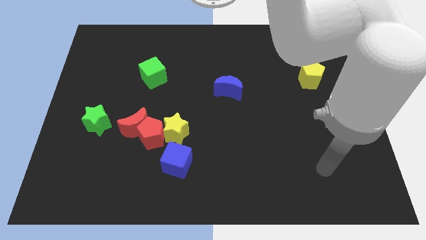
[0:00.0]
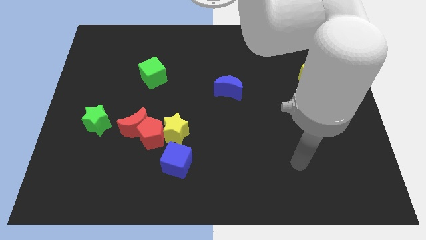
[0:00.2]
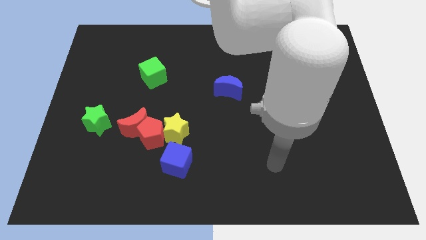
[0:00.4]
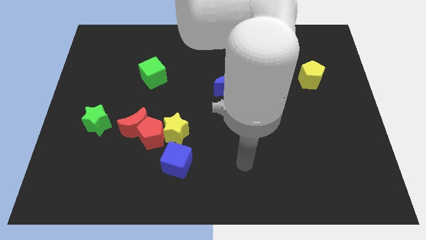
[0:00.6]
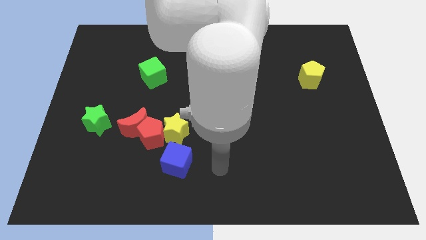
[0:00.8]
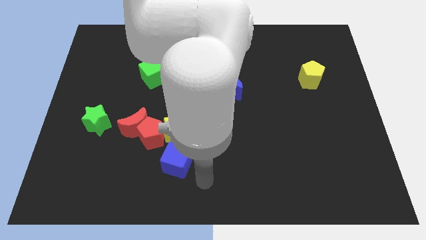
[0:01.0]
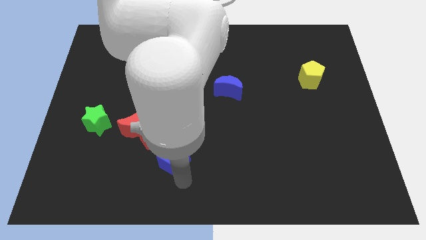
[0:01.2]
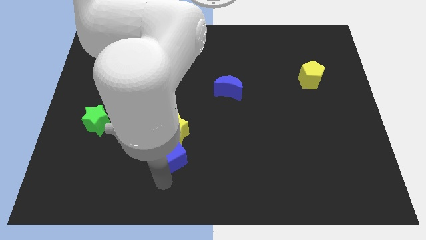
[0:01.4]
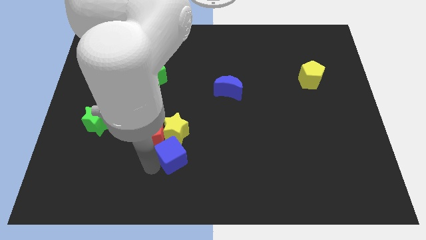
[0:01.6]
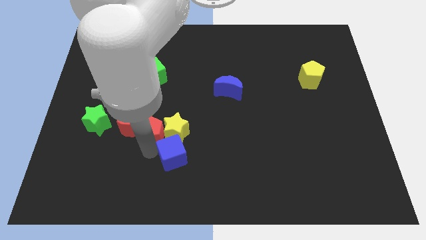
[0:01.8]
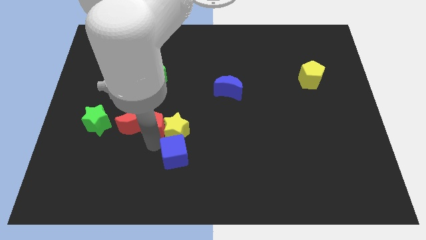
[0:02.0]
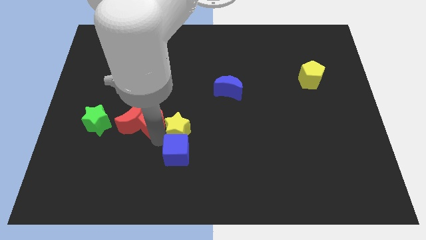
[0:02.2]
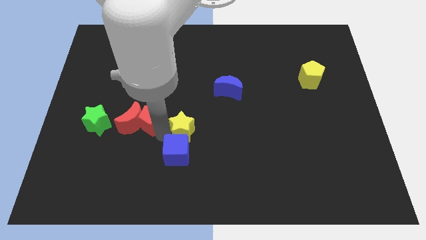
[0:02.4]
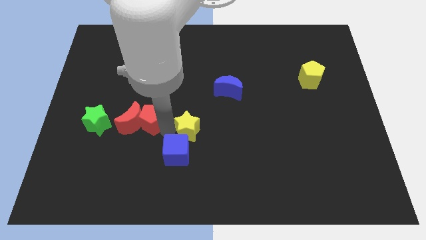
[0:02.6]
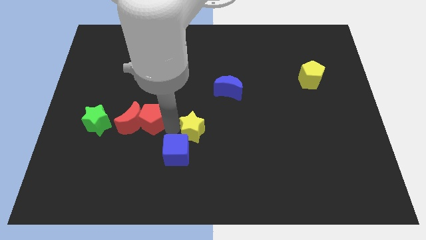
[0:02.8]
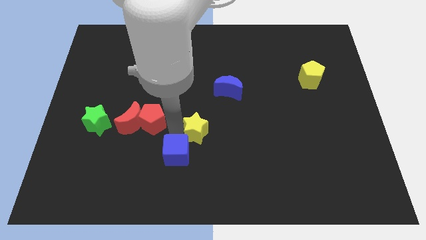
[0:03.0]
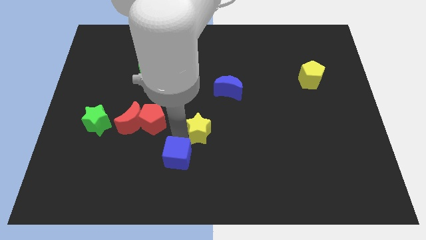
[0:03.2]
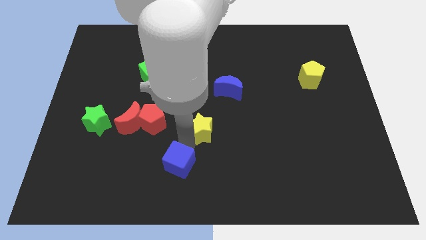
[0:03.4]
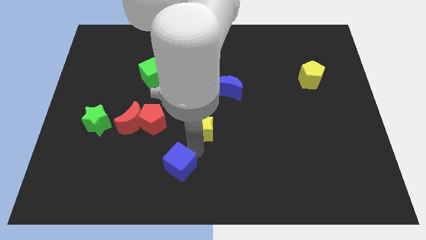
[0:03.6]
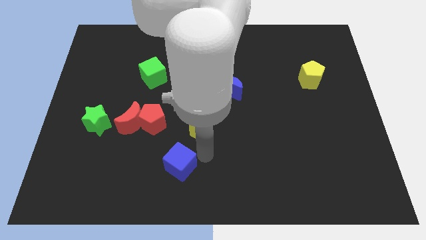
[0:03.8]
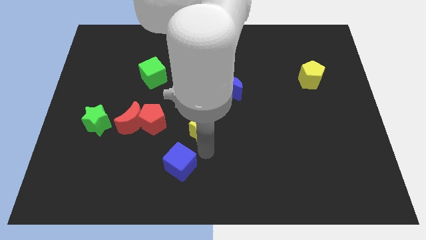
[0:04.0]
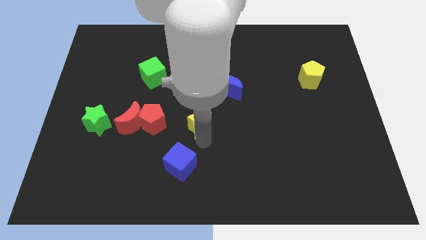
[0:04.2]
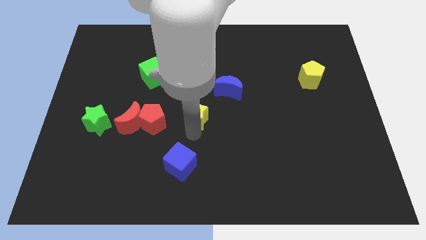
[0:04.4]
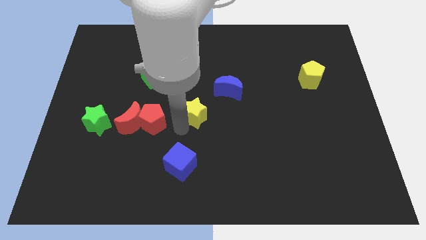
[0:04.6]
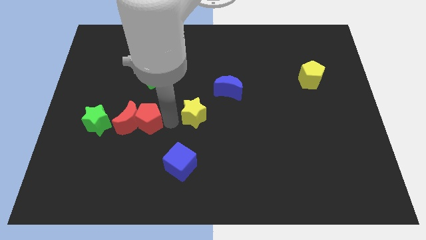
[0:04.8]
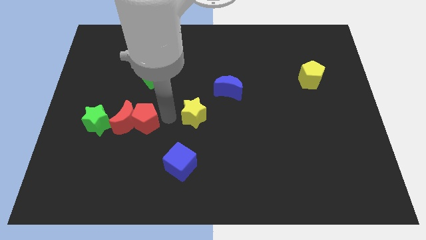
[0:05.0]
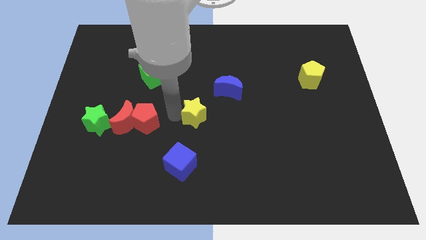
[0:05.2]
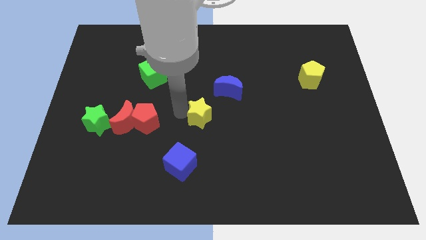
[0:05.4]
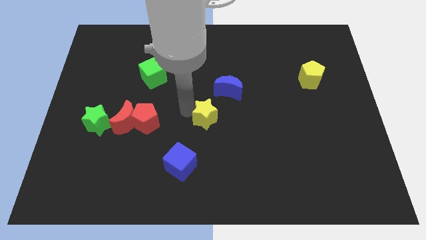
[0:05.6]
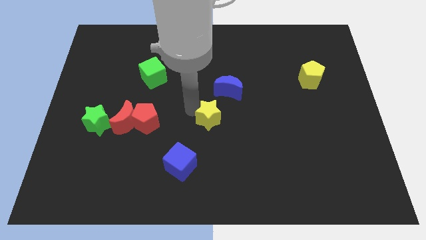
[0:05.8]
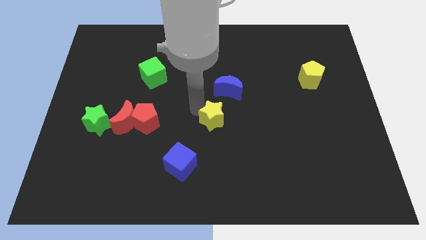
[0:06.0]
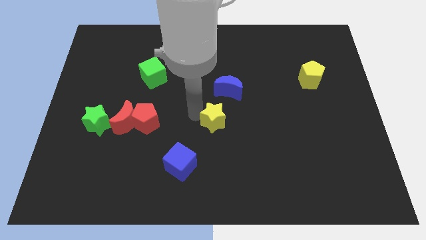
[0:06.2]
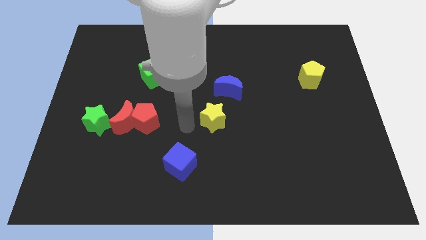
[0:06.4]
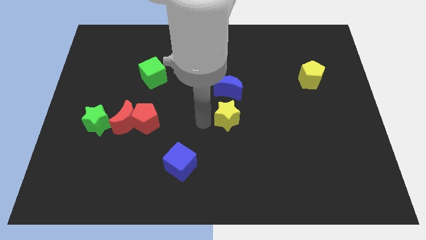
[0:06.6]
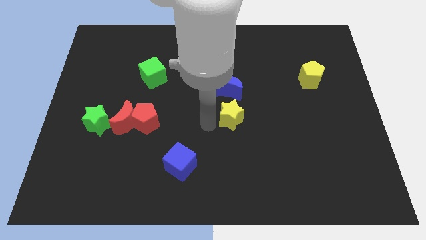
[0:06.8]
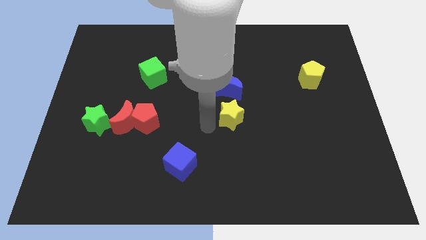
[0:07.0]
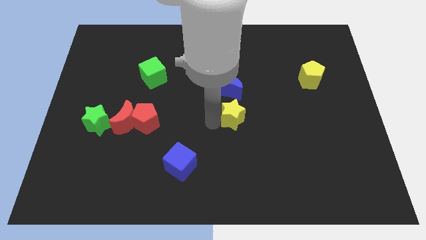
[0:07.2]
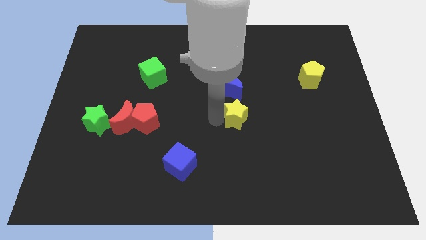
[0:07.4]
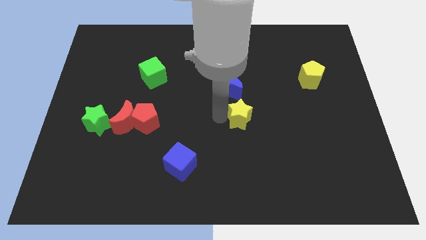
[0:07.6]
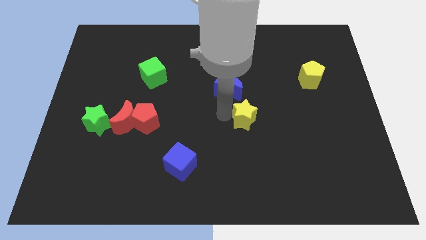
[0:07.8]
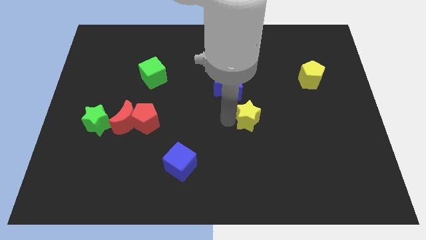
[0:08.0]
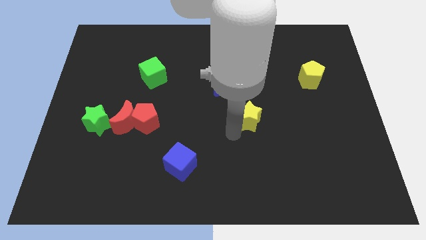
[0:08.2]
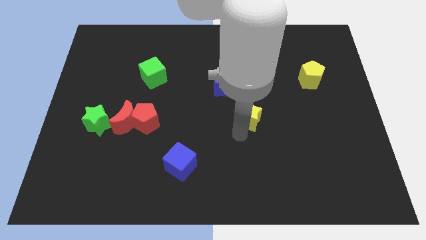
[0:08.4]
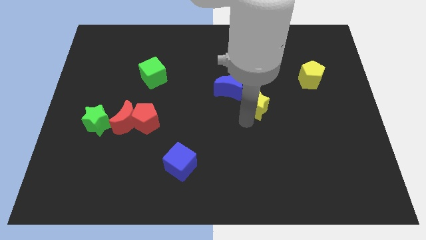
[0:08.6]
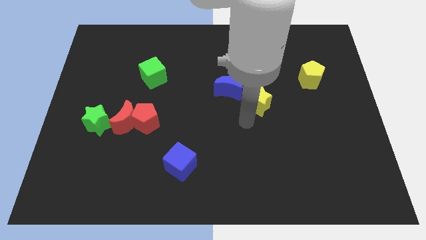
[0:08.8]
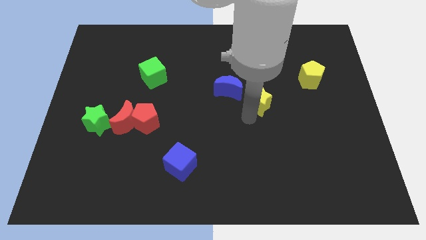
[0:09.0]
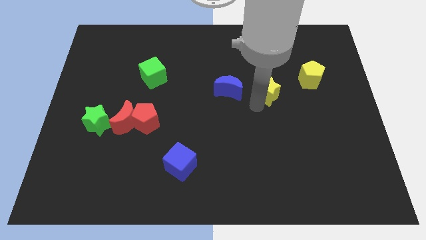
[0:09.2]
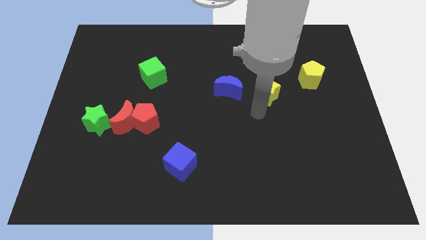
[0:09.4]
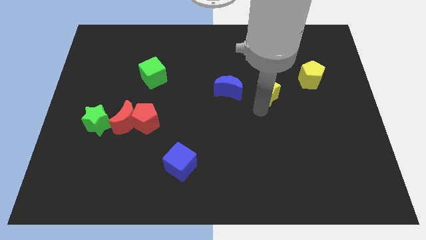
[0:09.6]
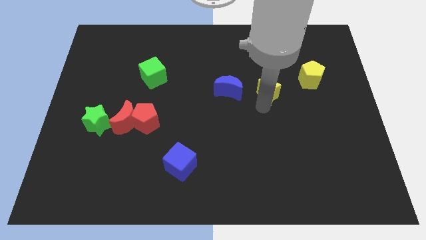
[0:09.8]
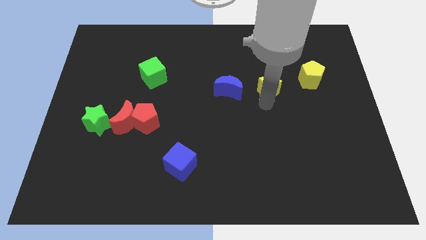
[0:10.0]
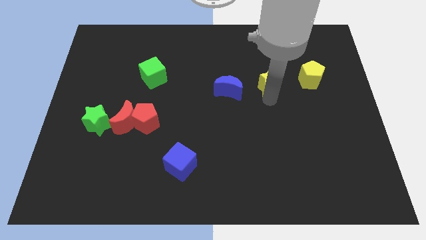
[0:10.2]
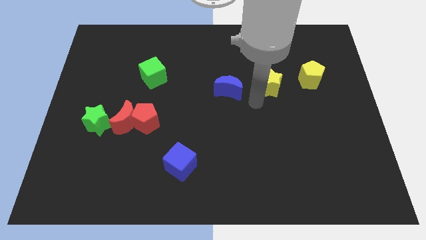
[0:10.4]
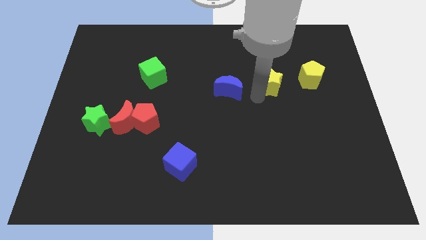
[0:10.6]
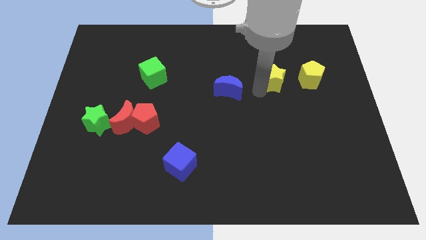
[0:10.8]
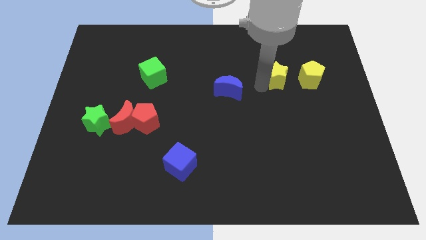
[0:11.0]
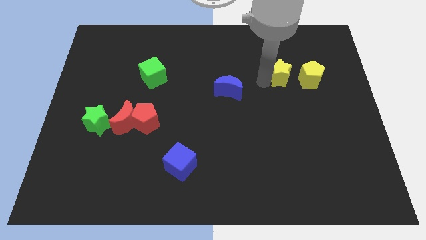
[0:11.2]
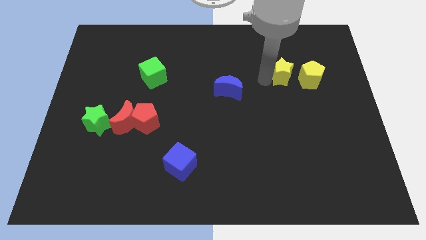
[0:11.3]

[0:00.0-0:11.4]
put the yellow star to the top left side of the yellow pentagon
